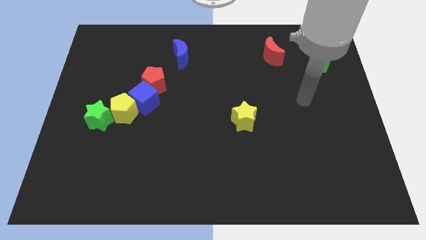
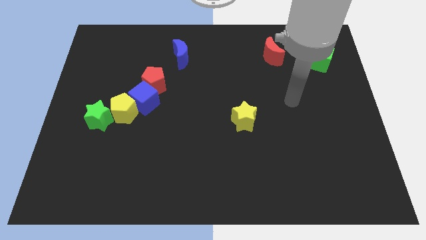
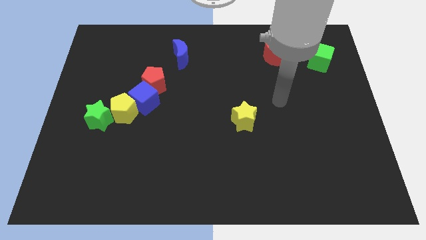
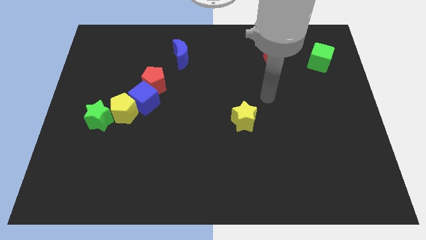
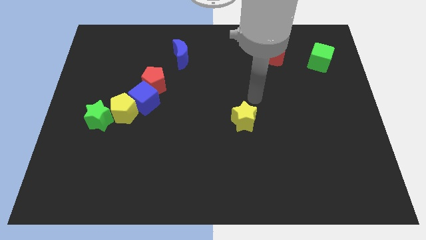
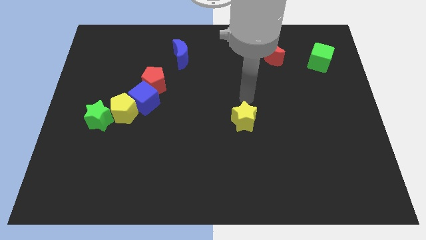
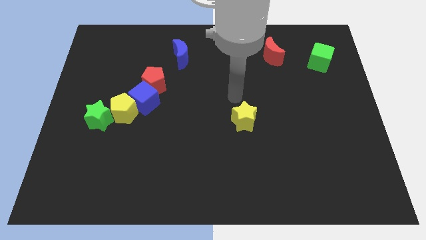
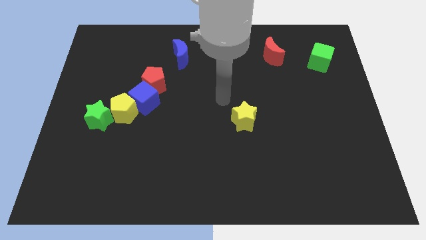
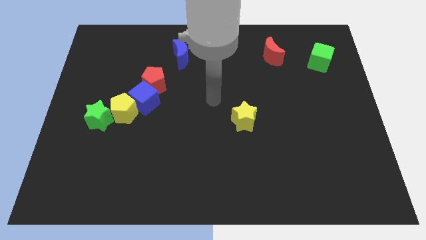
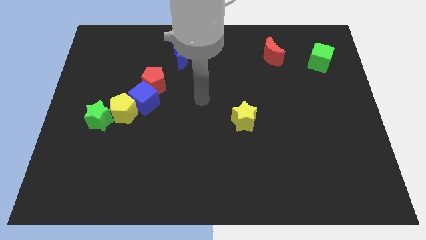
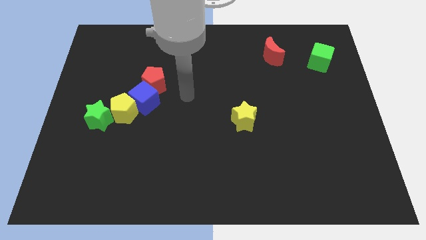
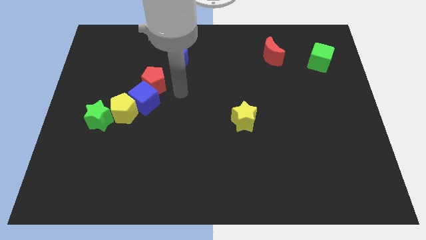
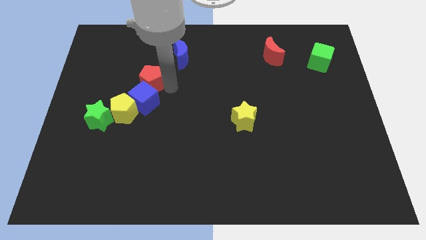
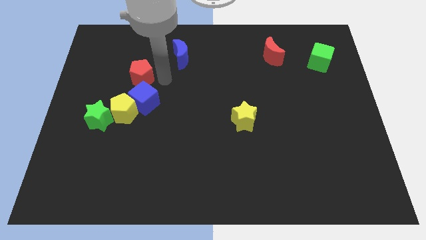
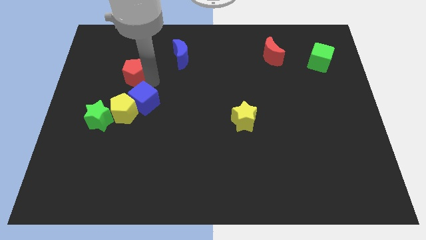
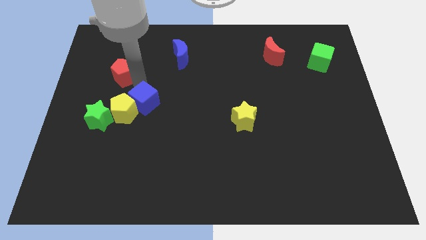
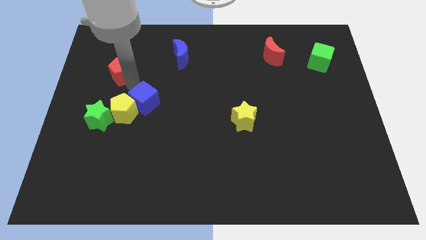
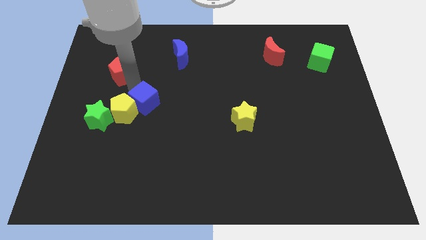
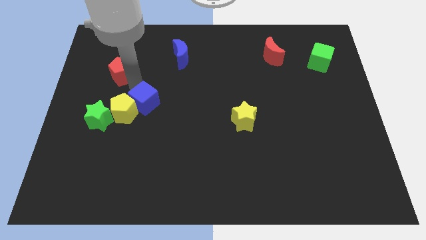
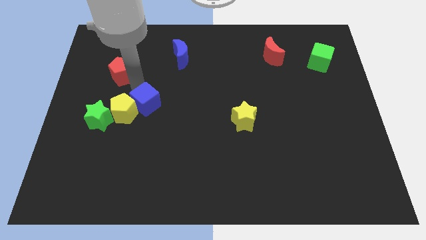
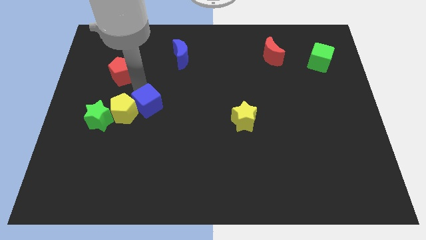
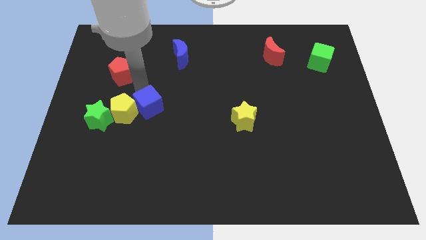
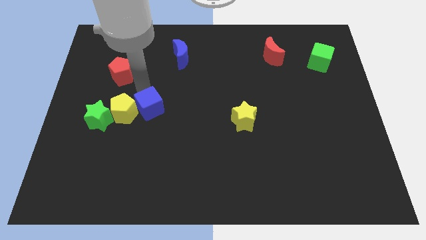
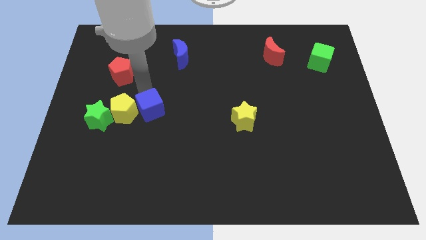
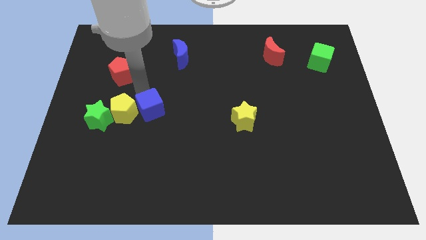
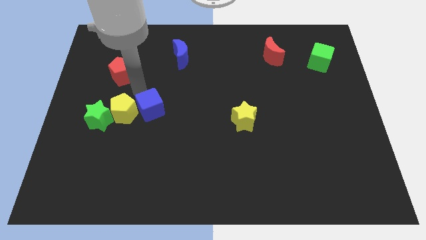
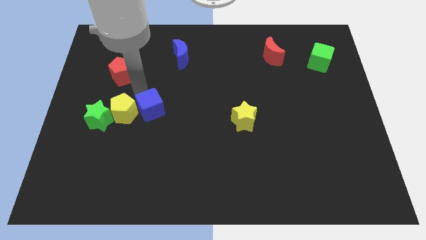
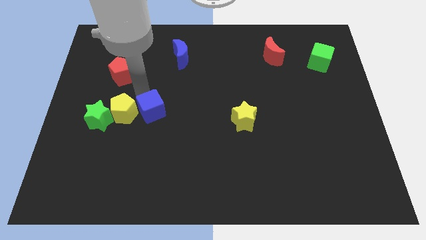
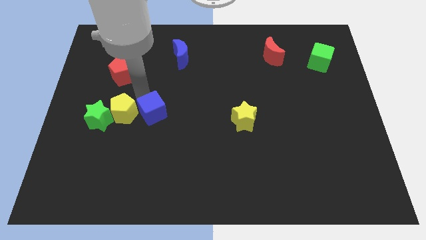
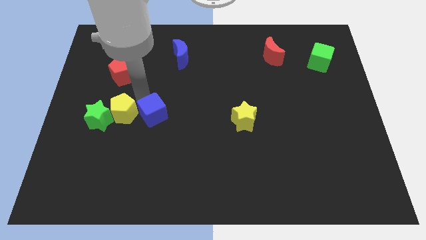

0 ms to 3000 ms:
pull the blue cube apart from the yellow pentagon and red pentagon

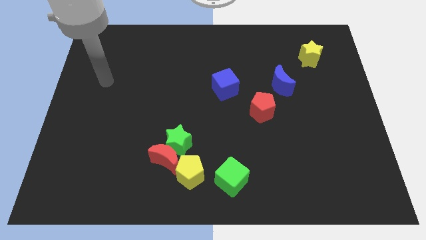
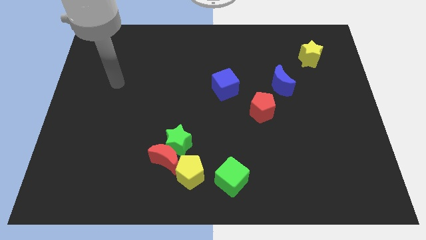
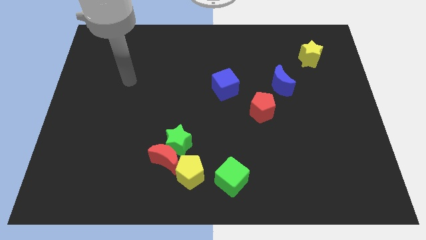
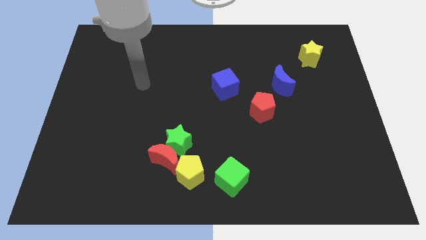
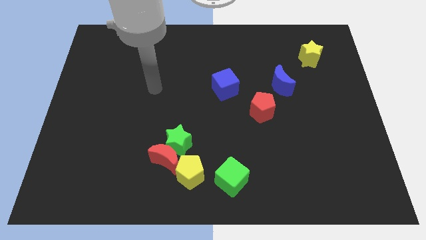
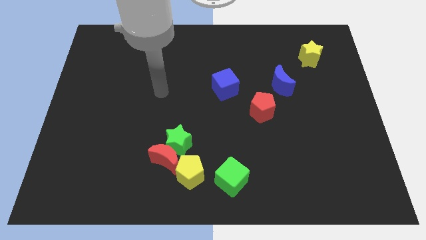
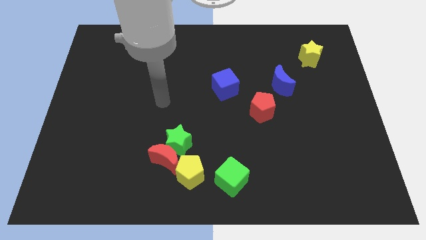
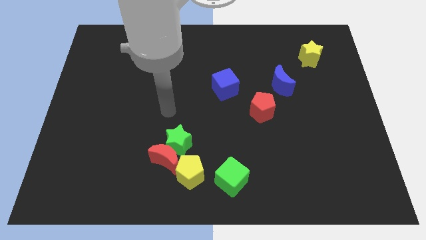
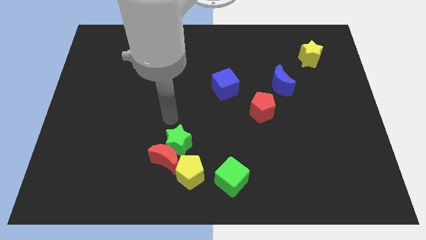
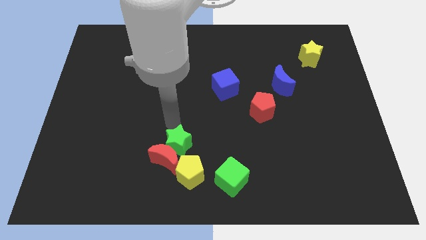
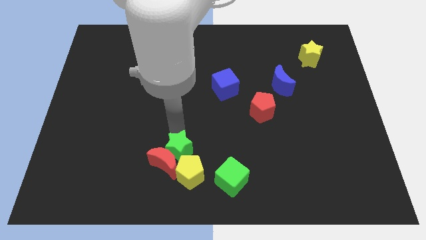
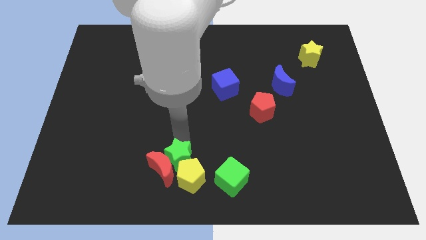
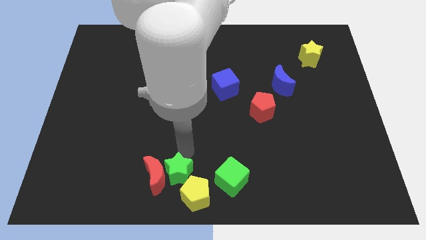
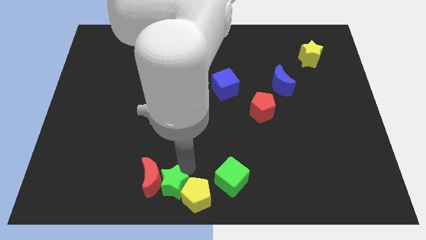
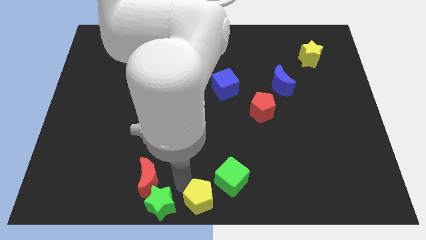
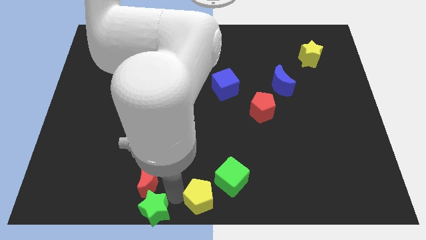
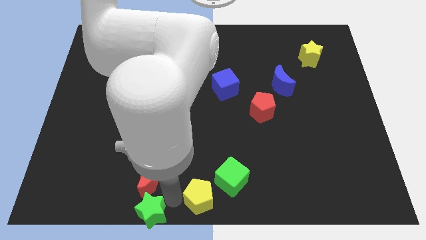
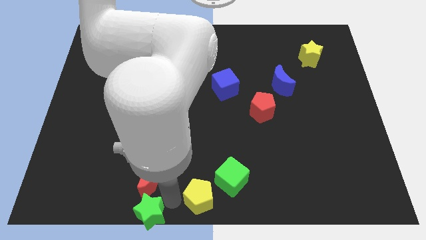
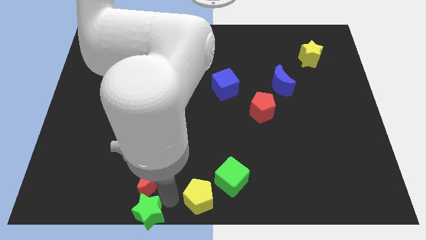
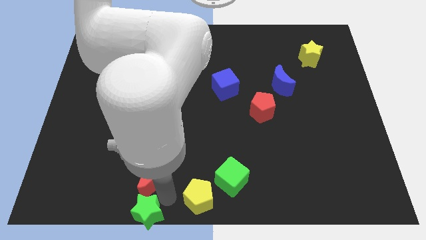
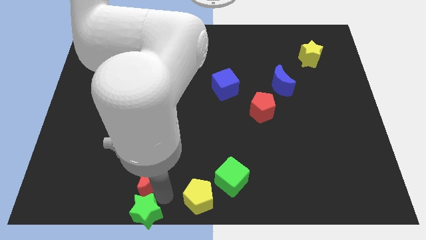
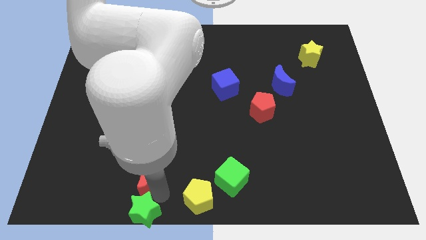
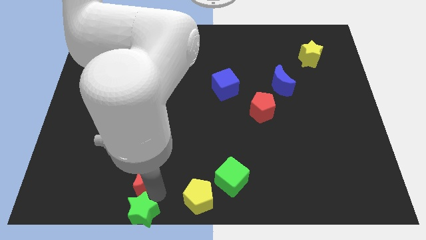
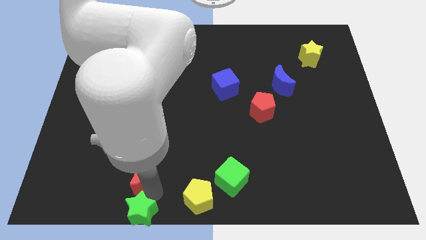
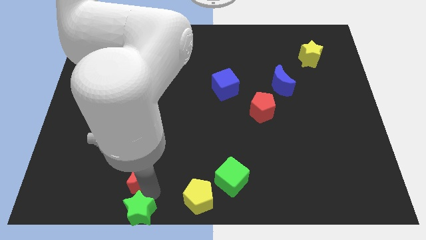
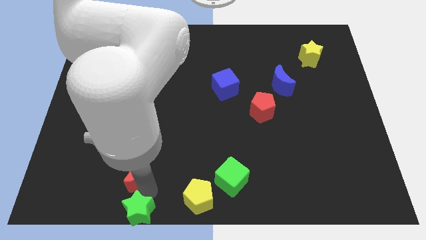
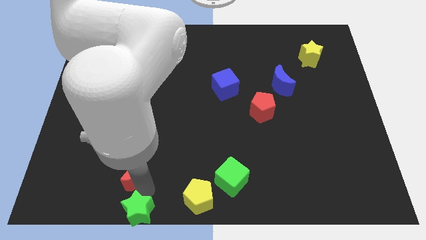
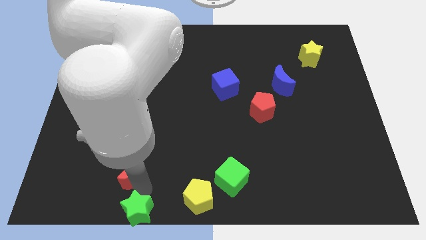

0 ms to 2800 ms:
pull the red moon apart from the green star and yellow pentagon

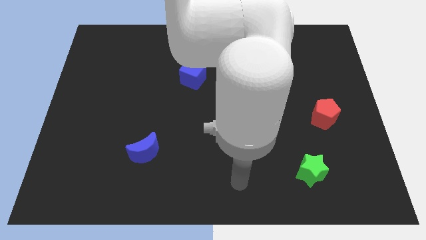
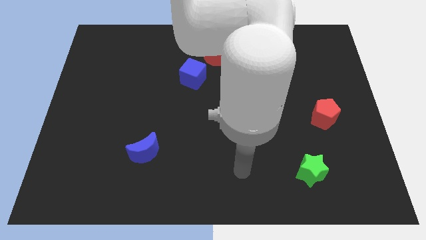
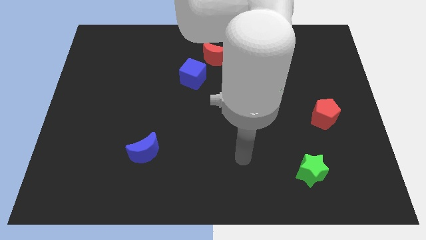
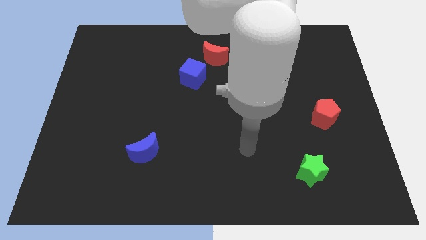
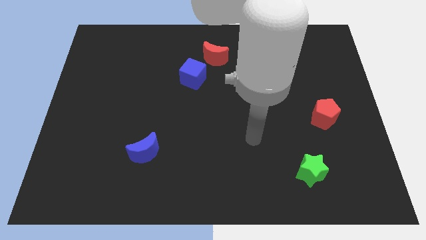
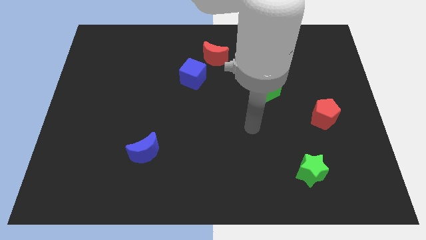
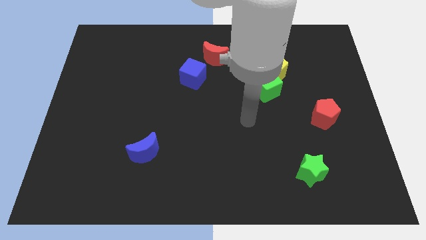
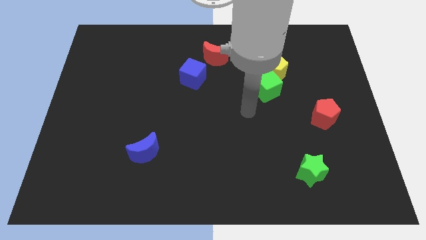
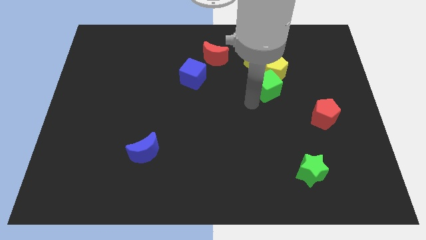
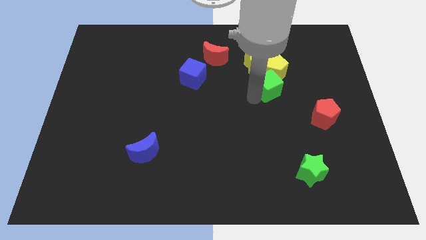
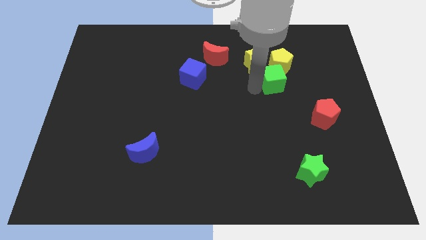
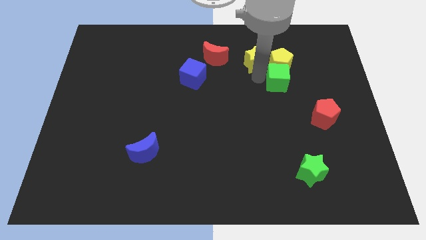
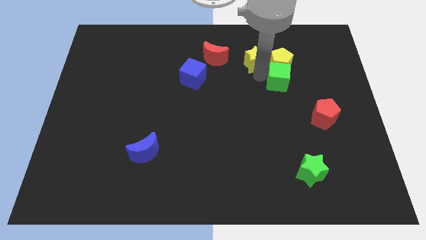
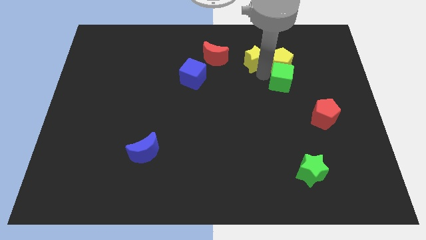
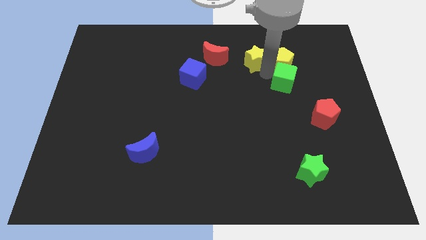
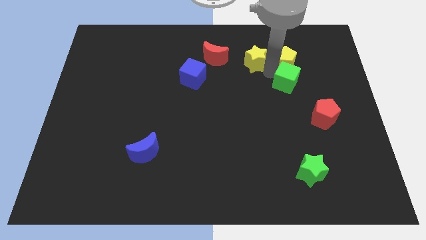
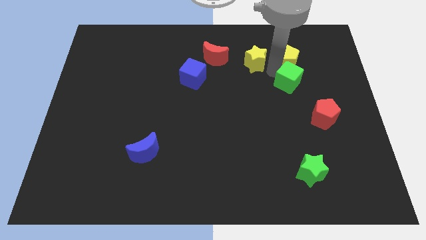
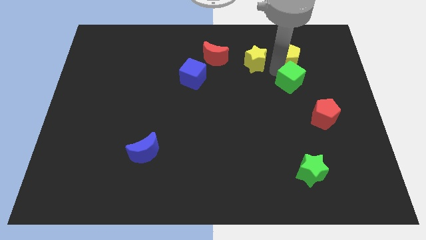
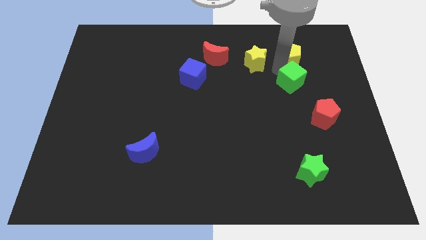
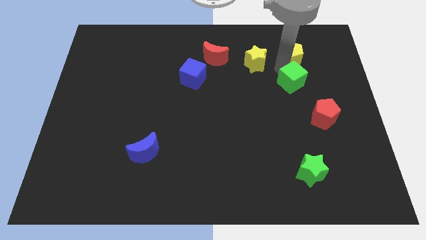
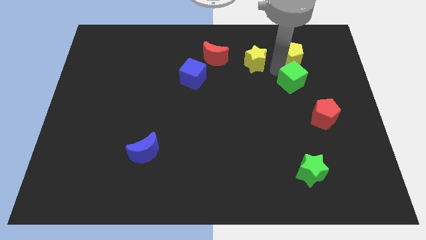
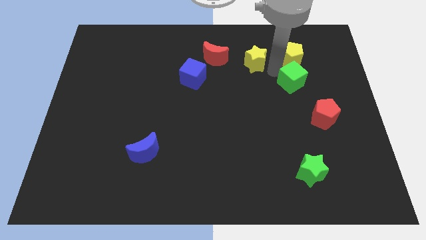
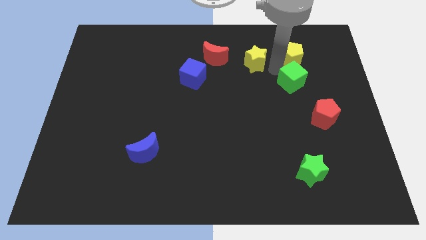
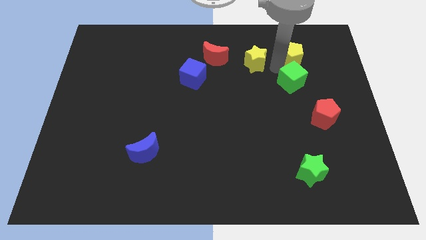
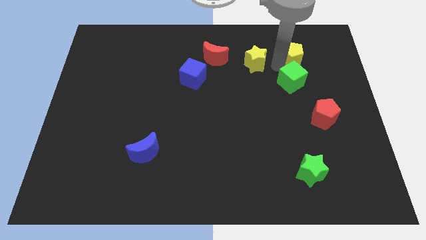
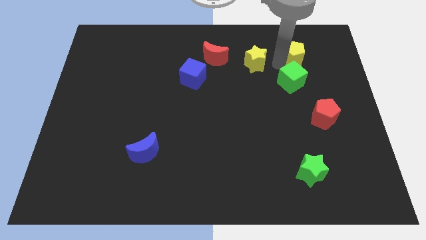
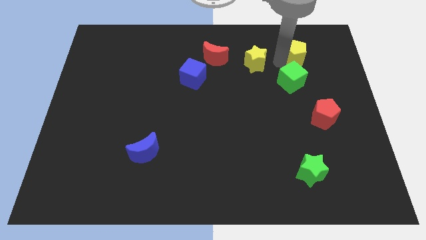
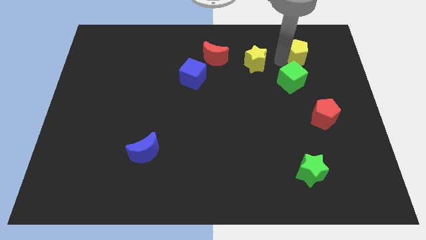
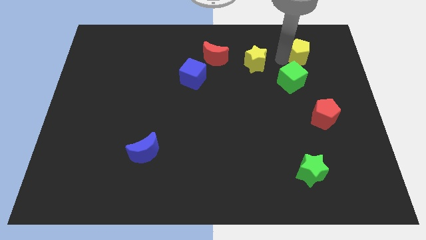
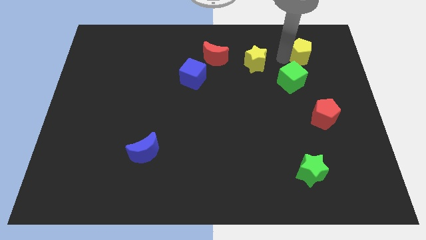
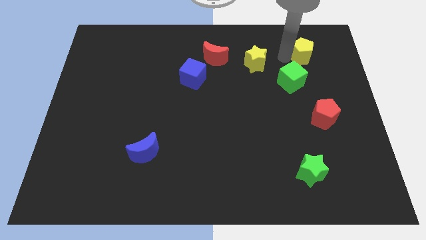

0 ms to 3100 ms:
move the yellow pentagon away from the yellow star and green cube

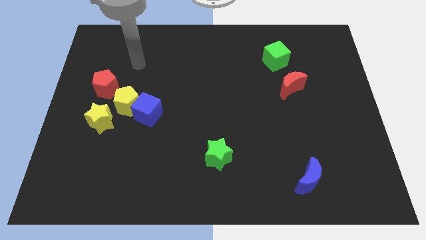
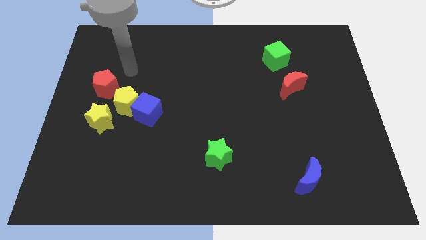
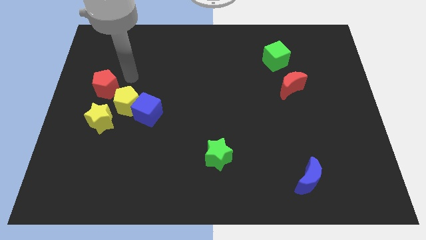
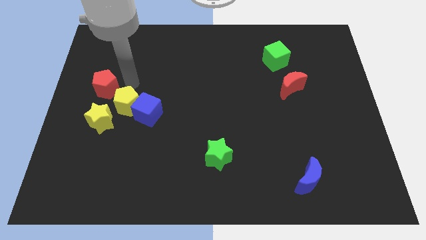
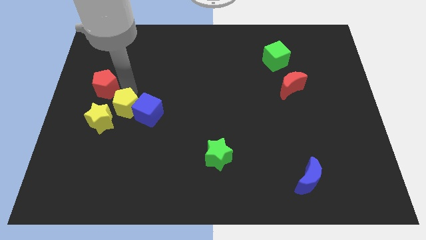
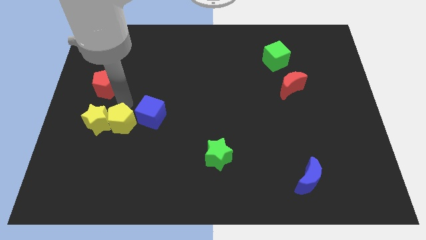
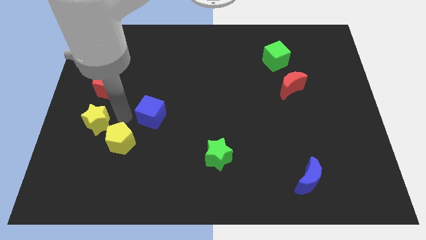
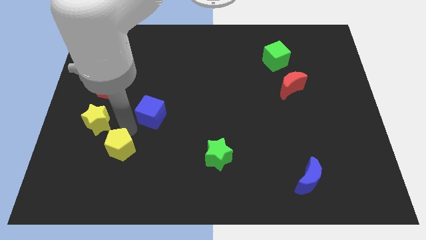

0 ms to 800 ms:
pull the blue cube apart from the yellow pentagon
